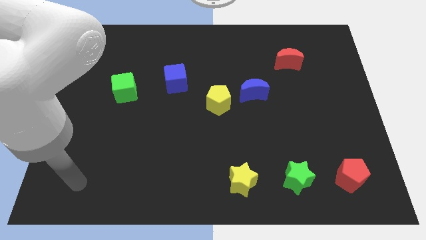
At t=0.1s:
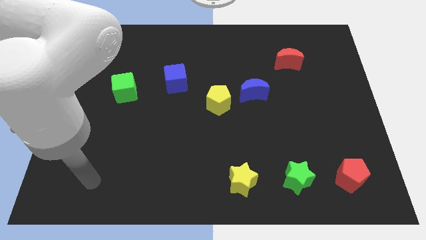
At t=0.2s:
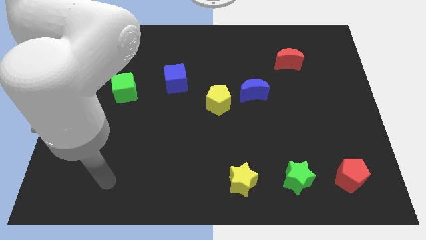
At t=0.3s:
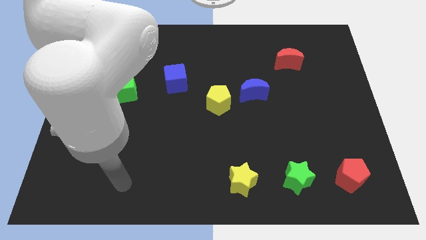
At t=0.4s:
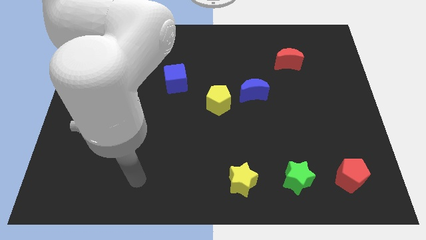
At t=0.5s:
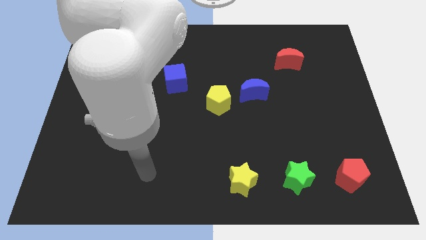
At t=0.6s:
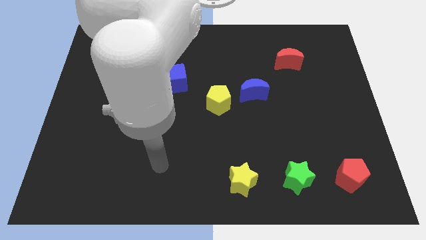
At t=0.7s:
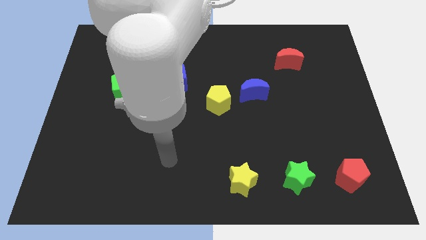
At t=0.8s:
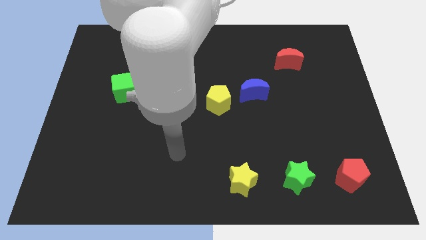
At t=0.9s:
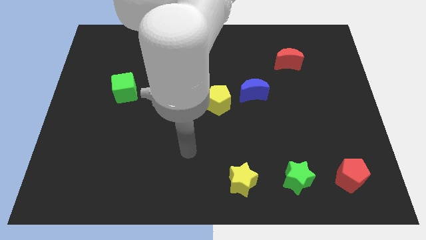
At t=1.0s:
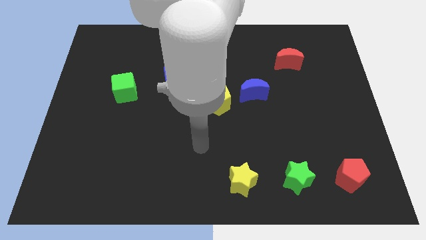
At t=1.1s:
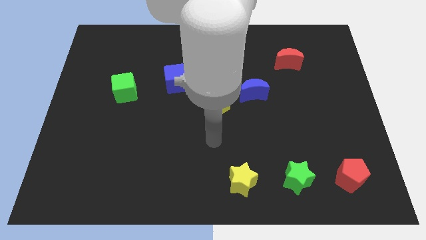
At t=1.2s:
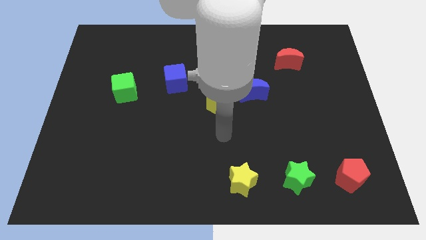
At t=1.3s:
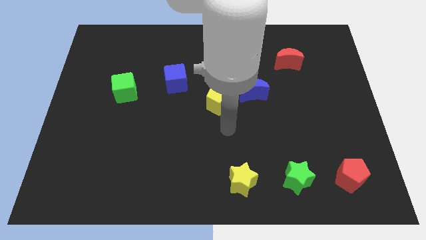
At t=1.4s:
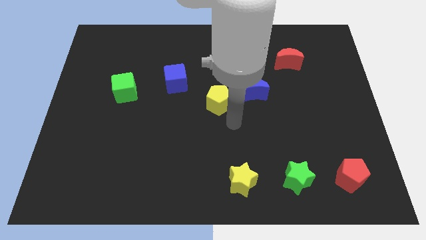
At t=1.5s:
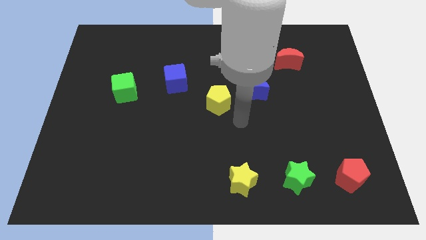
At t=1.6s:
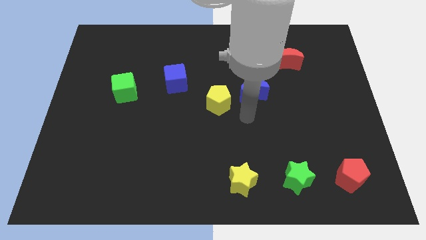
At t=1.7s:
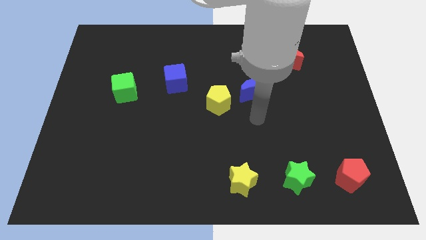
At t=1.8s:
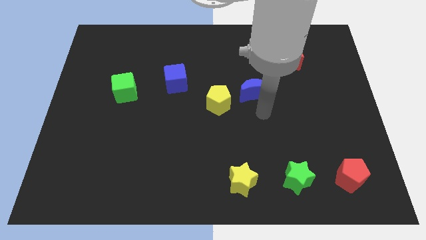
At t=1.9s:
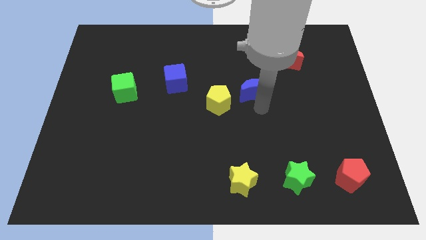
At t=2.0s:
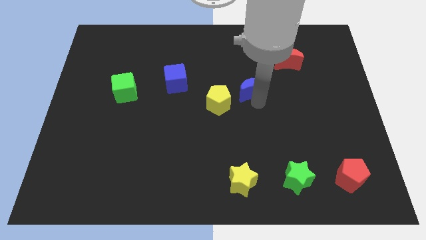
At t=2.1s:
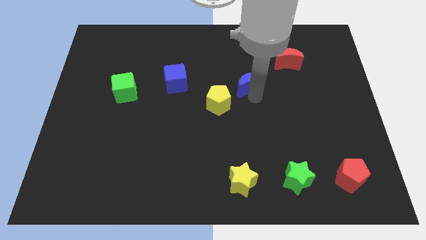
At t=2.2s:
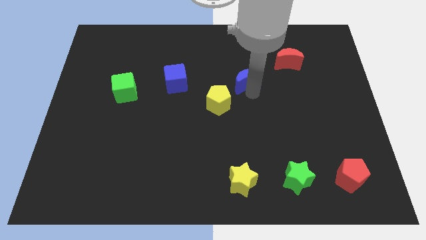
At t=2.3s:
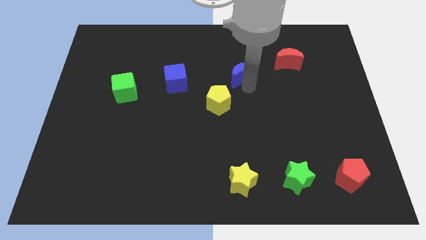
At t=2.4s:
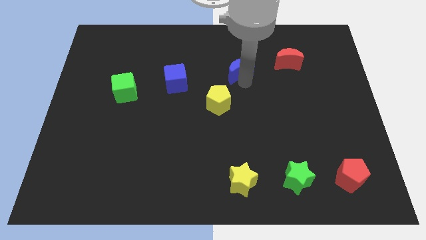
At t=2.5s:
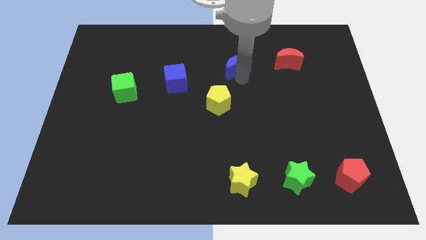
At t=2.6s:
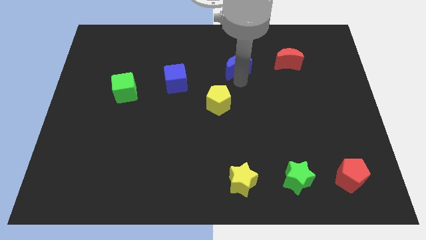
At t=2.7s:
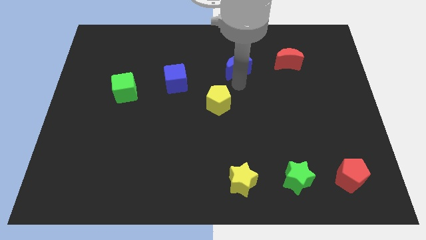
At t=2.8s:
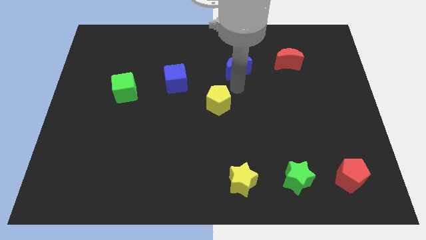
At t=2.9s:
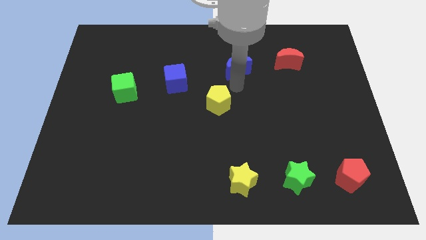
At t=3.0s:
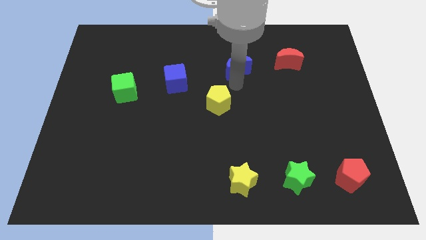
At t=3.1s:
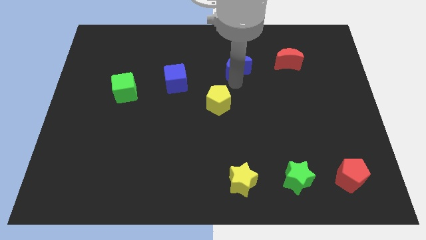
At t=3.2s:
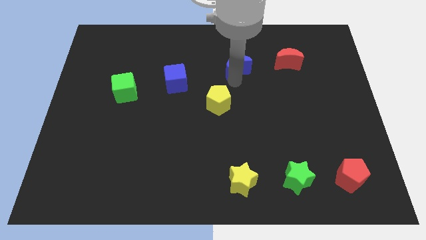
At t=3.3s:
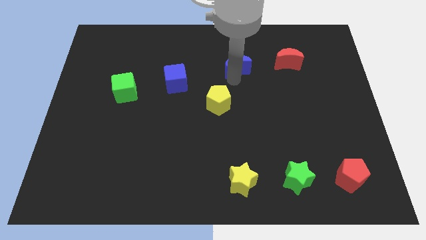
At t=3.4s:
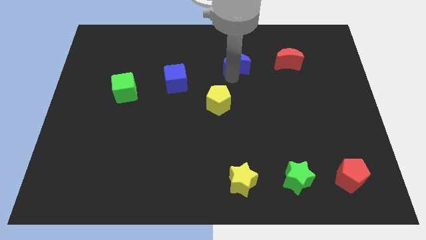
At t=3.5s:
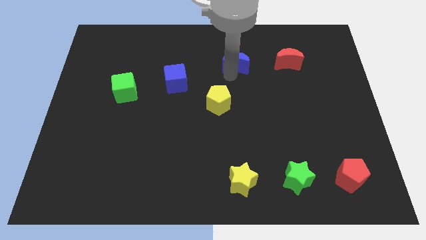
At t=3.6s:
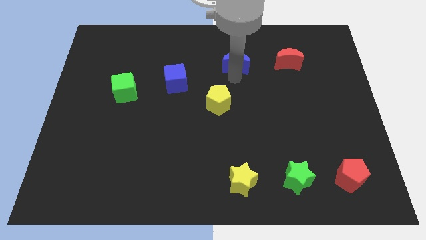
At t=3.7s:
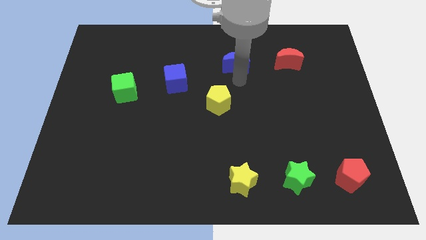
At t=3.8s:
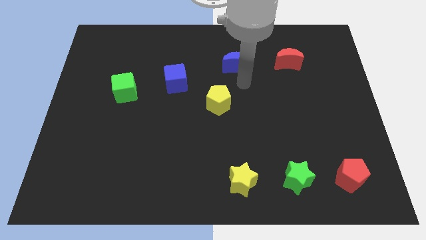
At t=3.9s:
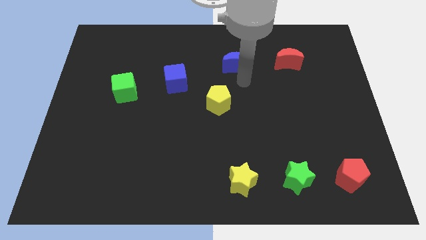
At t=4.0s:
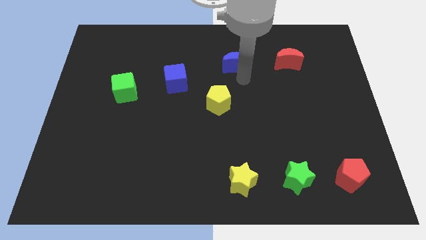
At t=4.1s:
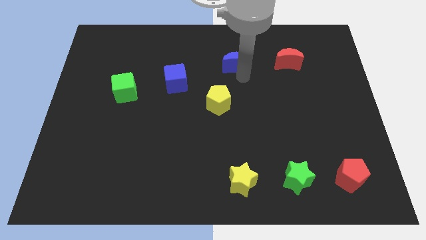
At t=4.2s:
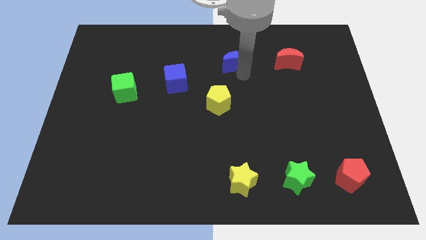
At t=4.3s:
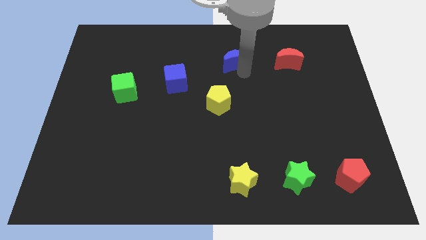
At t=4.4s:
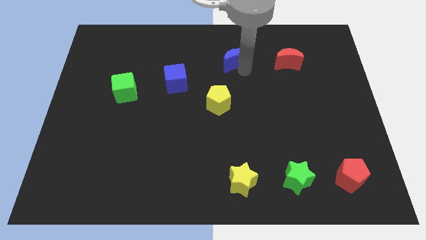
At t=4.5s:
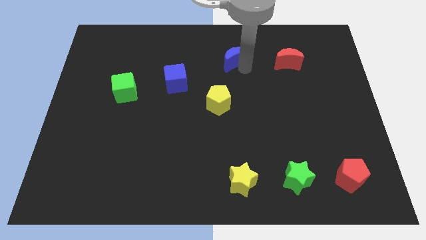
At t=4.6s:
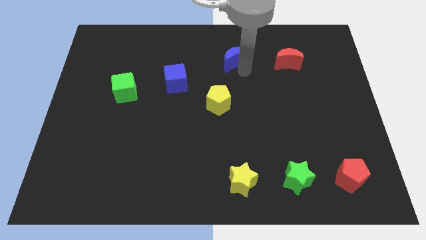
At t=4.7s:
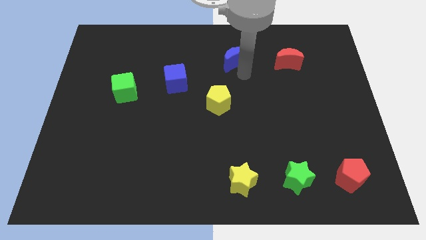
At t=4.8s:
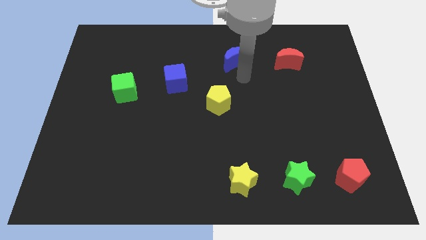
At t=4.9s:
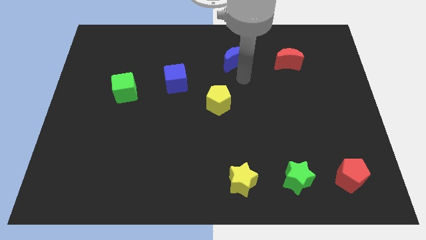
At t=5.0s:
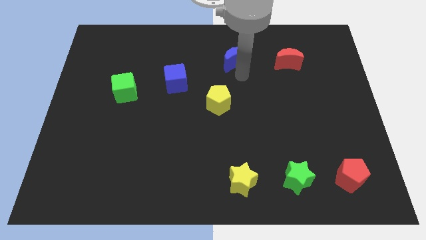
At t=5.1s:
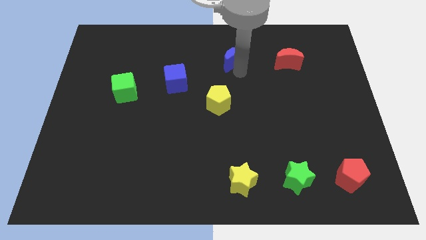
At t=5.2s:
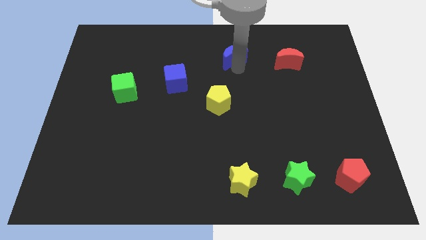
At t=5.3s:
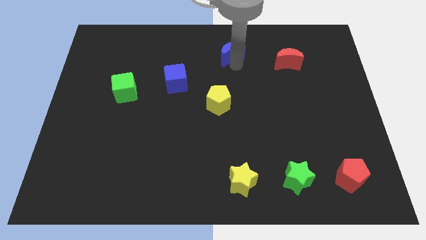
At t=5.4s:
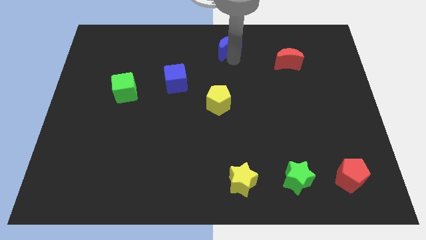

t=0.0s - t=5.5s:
move the blue moon to the top

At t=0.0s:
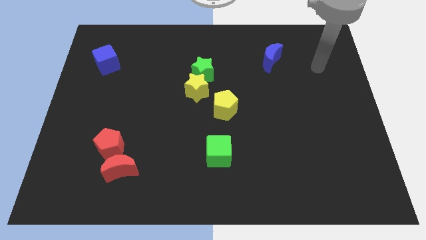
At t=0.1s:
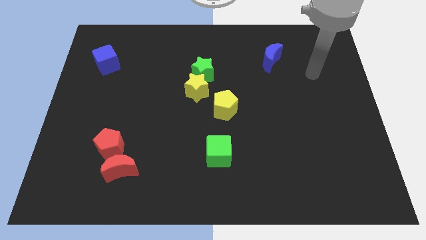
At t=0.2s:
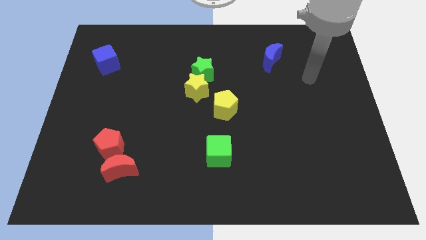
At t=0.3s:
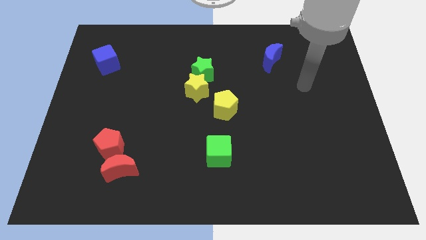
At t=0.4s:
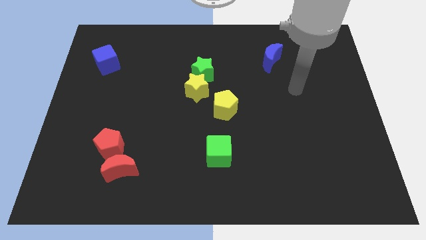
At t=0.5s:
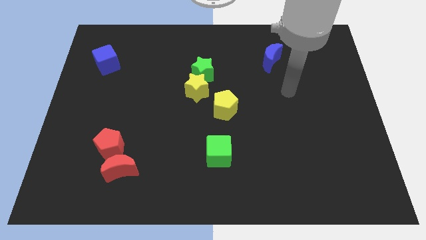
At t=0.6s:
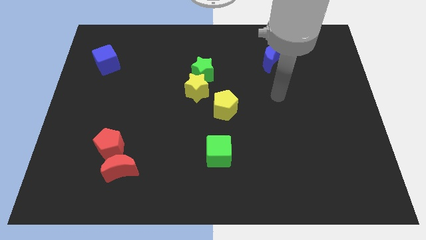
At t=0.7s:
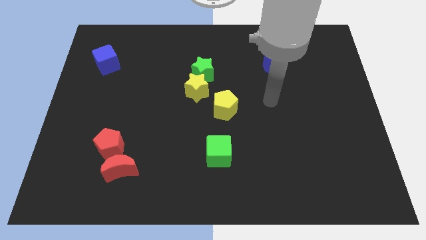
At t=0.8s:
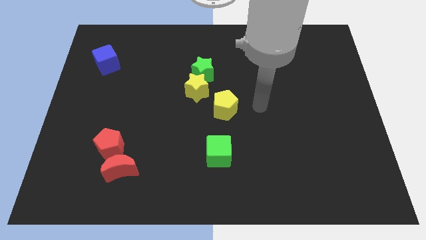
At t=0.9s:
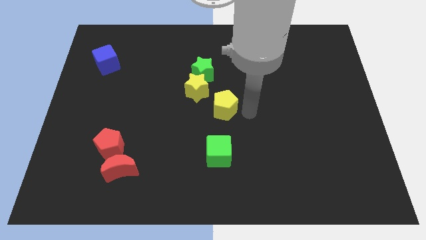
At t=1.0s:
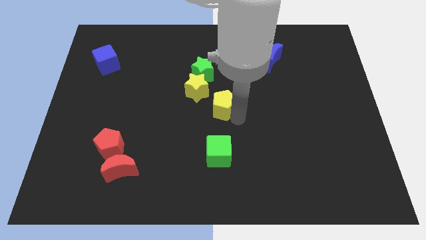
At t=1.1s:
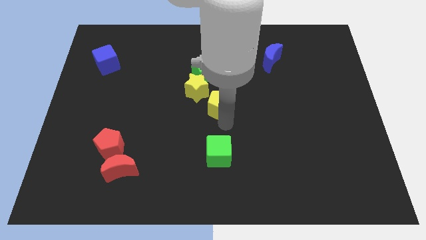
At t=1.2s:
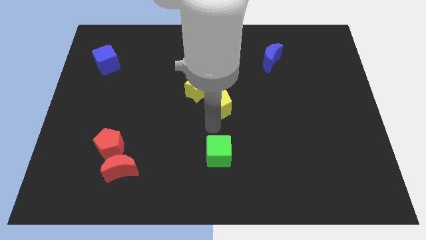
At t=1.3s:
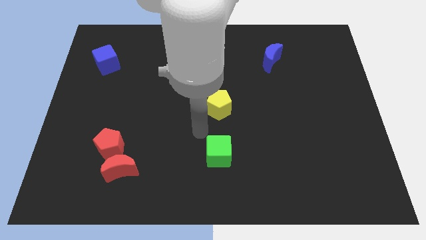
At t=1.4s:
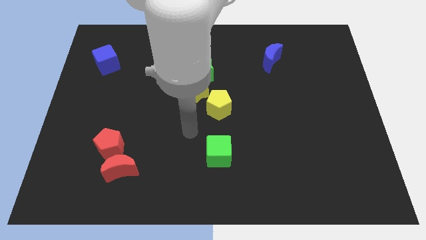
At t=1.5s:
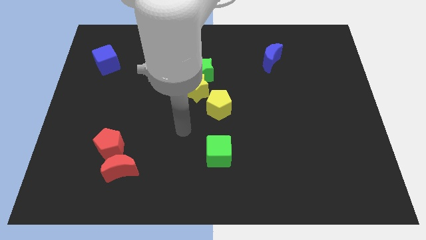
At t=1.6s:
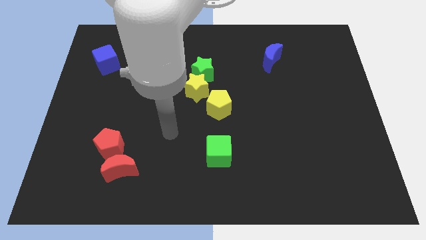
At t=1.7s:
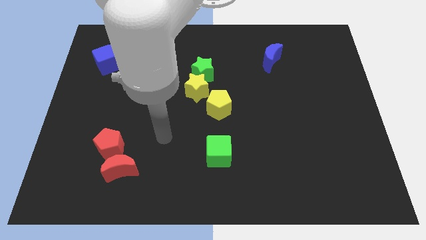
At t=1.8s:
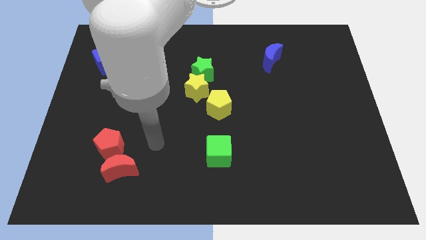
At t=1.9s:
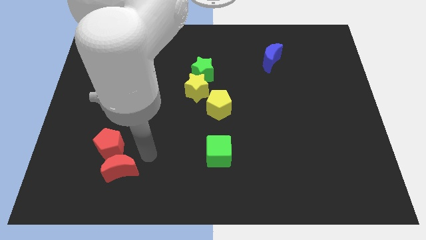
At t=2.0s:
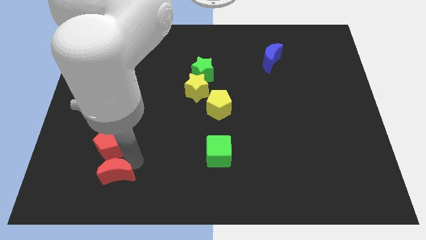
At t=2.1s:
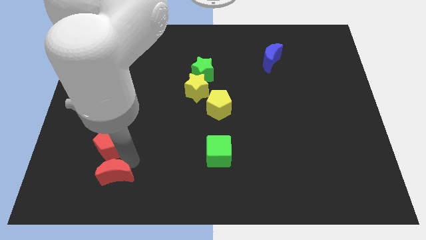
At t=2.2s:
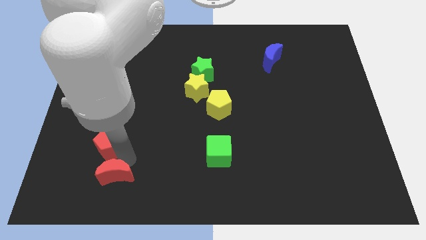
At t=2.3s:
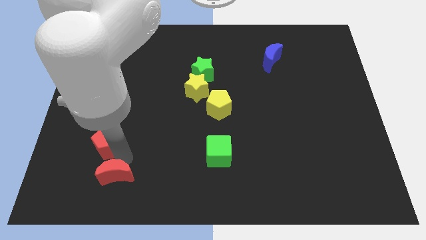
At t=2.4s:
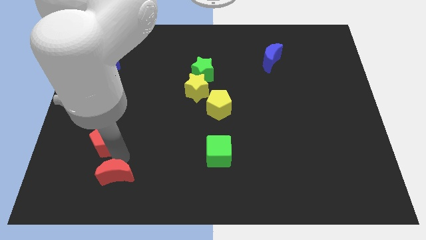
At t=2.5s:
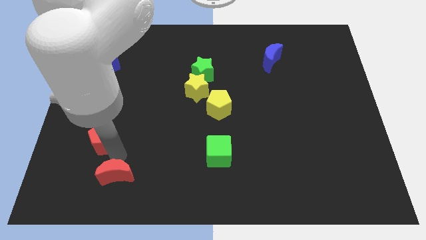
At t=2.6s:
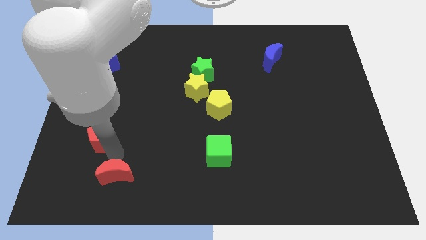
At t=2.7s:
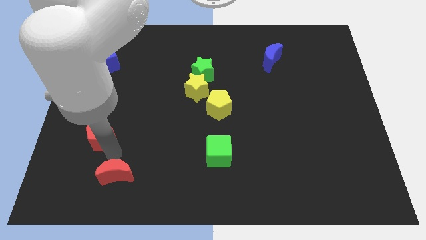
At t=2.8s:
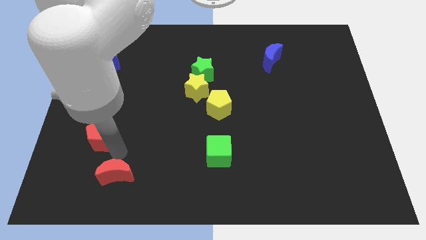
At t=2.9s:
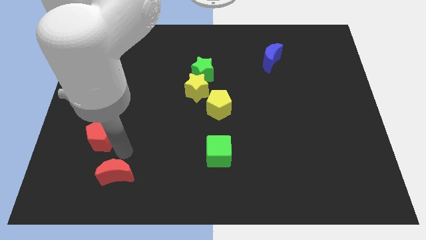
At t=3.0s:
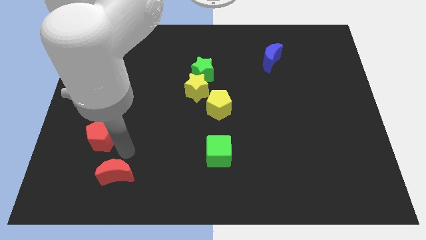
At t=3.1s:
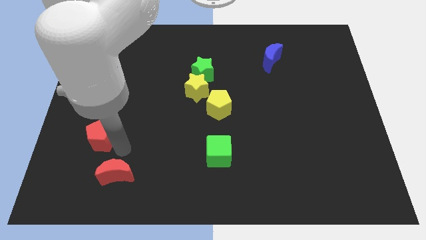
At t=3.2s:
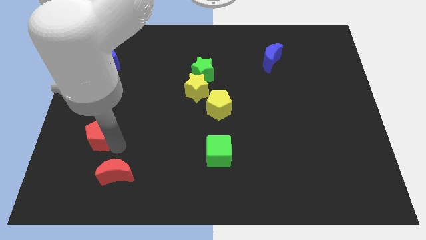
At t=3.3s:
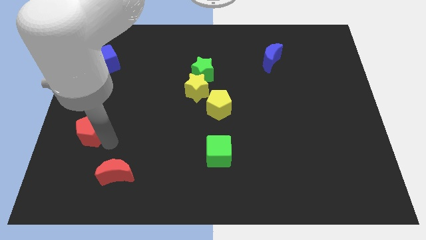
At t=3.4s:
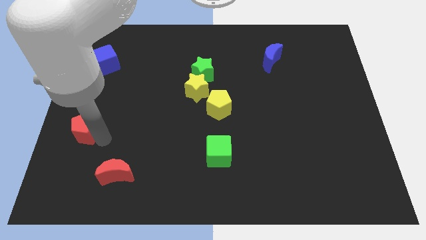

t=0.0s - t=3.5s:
put the red pentagon to the left side of the board
